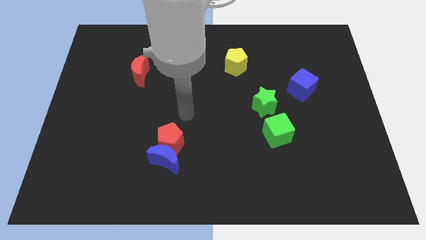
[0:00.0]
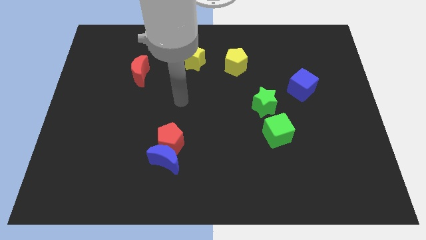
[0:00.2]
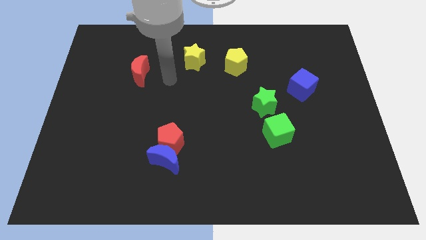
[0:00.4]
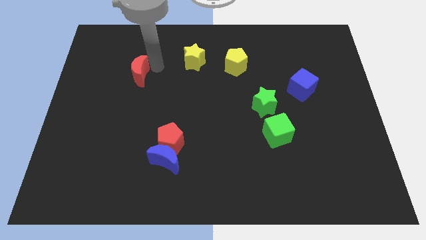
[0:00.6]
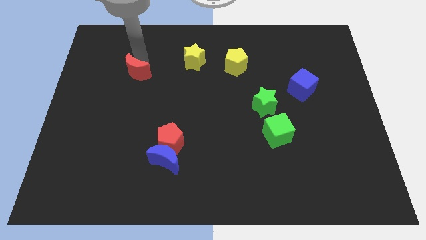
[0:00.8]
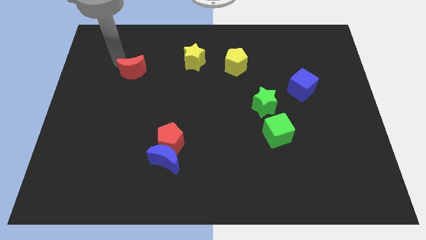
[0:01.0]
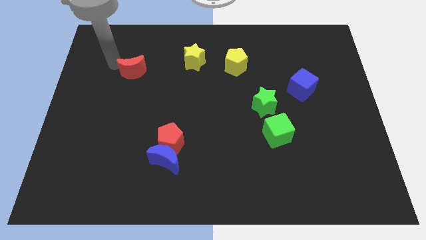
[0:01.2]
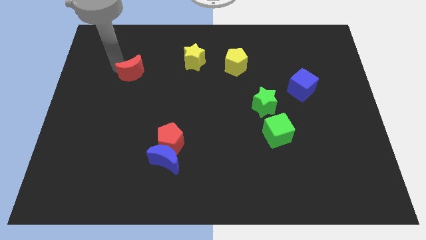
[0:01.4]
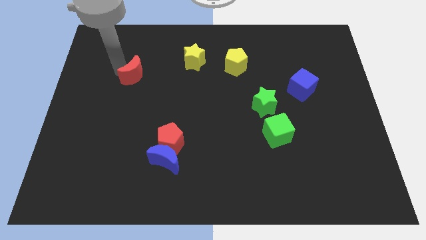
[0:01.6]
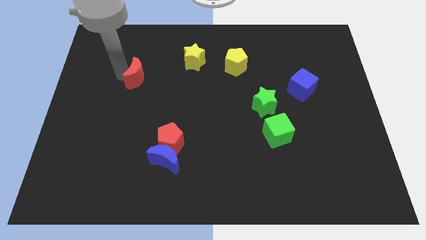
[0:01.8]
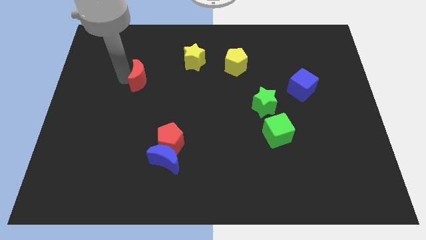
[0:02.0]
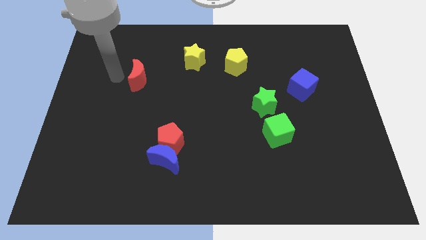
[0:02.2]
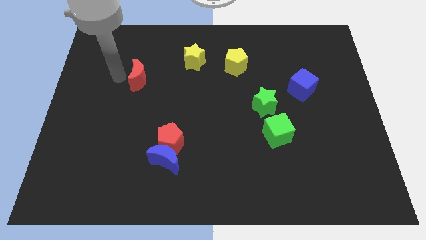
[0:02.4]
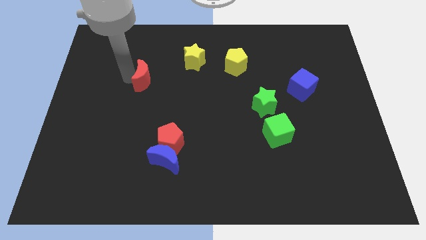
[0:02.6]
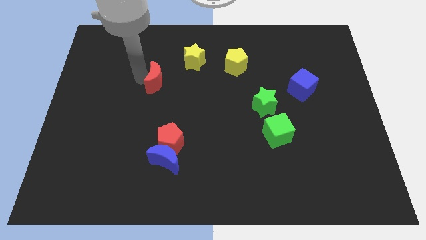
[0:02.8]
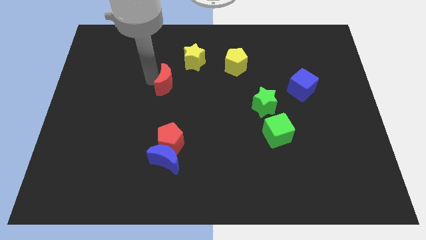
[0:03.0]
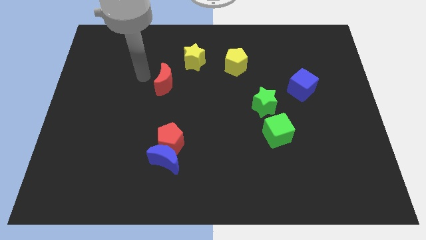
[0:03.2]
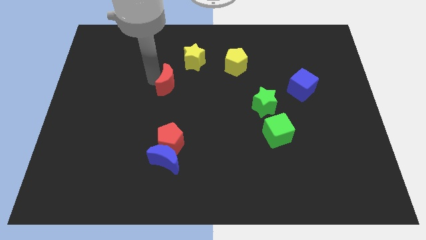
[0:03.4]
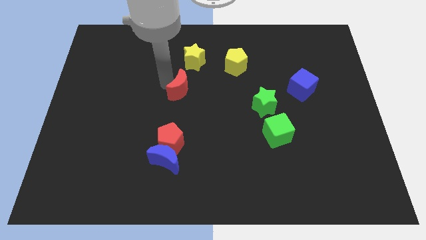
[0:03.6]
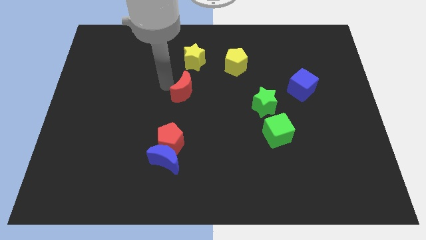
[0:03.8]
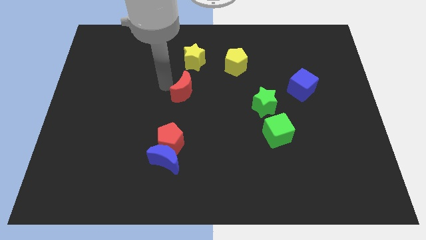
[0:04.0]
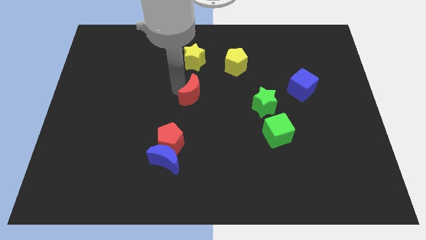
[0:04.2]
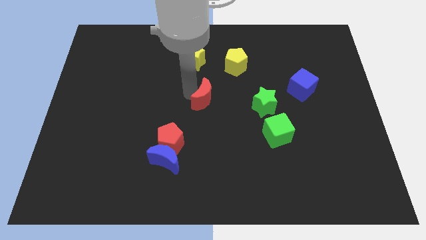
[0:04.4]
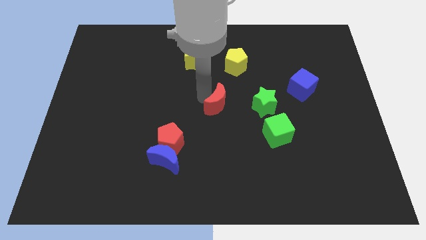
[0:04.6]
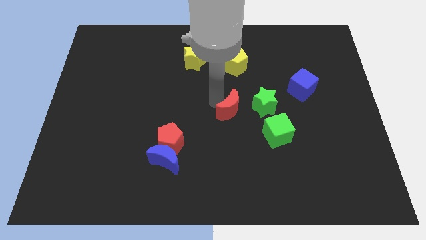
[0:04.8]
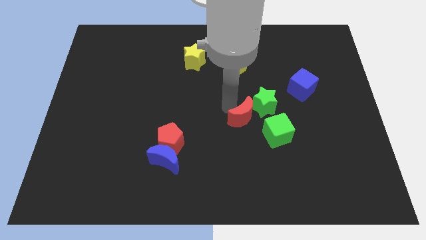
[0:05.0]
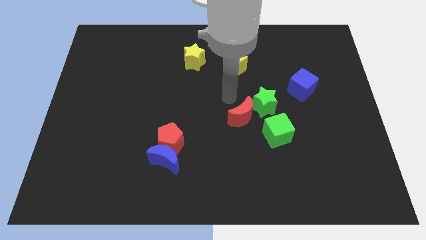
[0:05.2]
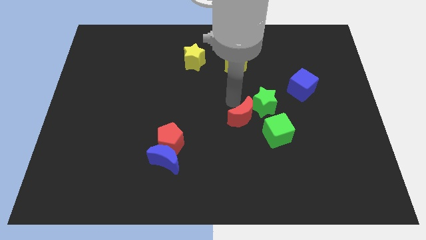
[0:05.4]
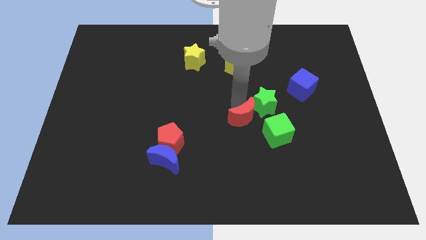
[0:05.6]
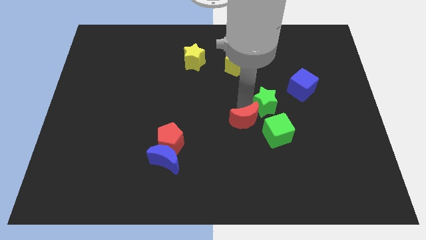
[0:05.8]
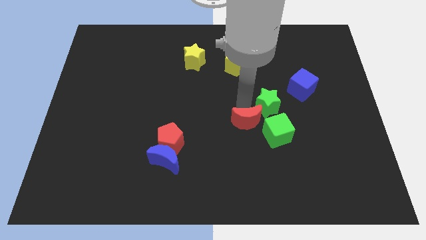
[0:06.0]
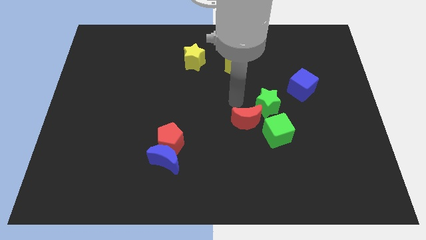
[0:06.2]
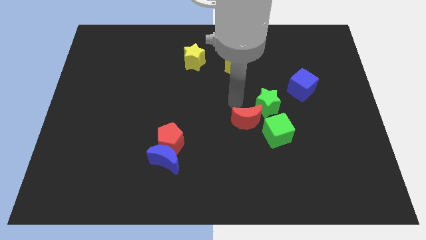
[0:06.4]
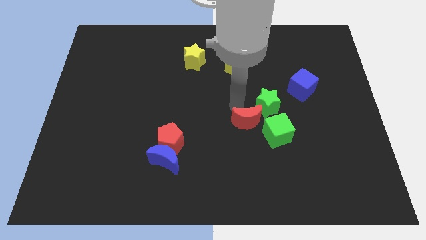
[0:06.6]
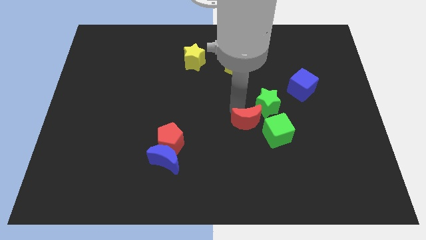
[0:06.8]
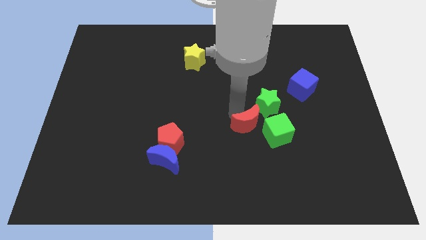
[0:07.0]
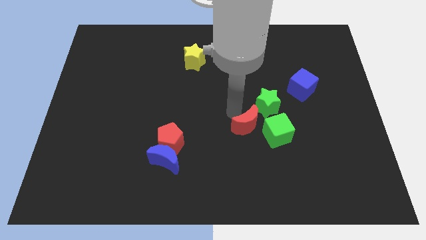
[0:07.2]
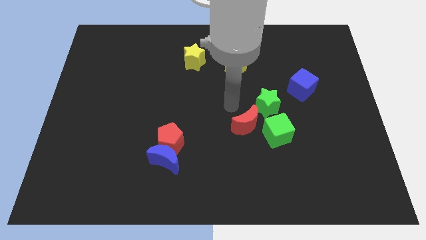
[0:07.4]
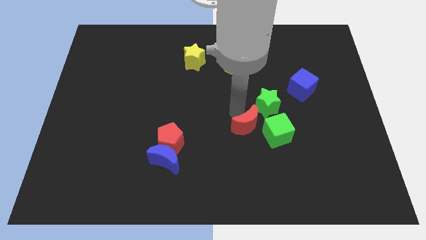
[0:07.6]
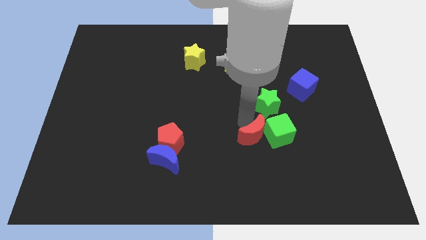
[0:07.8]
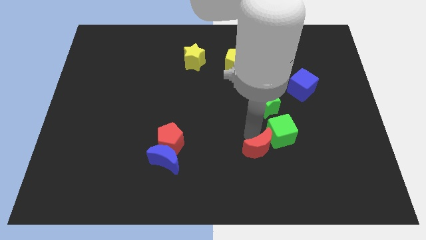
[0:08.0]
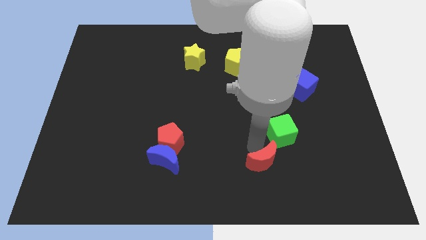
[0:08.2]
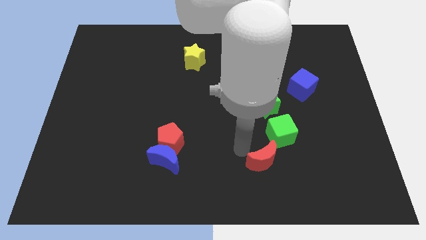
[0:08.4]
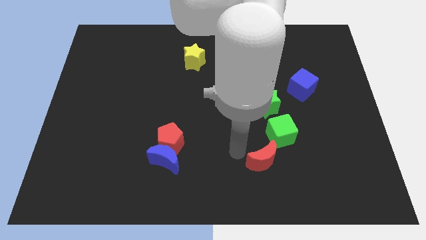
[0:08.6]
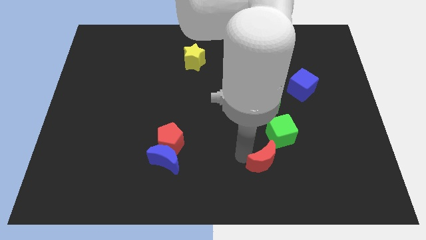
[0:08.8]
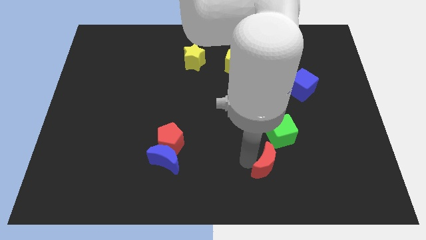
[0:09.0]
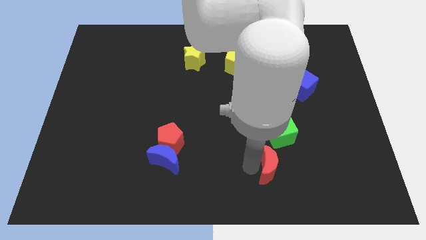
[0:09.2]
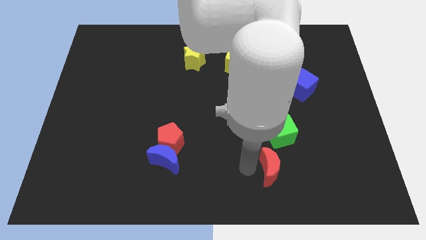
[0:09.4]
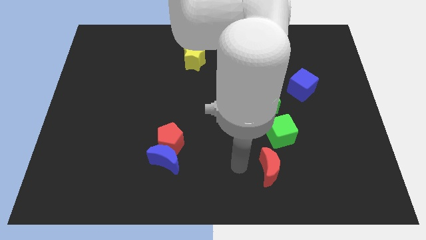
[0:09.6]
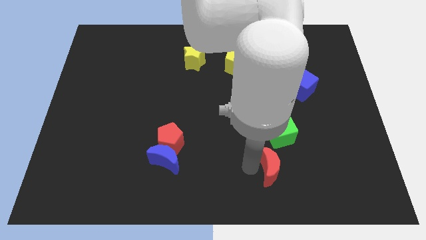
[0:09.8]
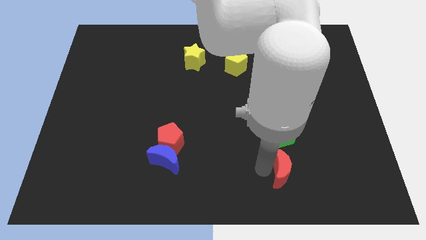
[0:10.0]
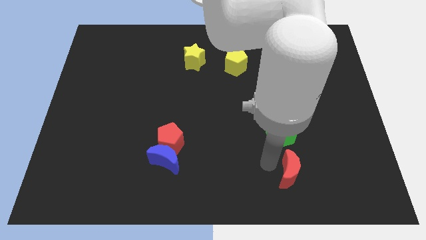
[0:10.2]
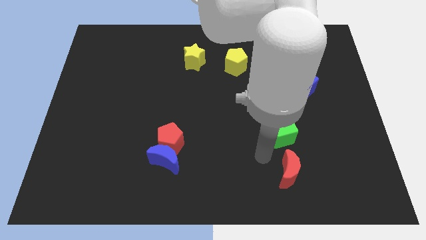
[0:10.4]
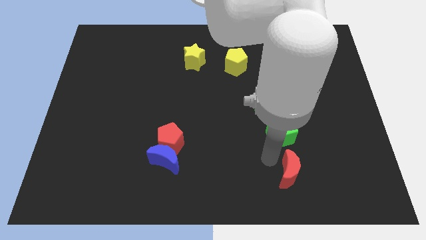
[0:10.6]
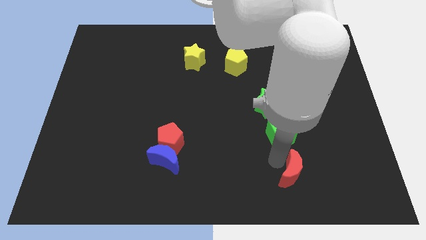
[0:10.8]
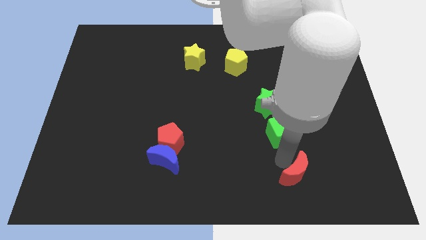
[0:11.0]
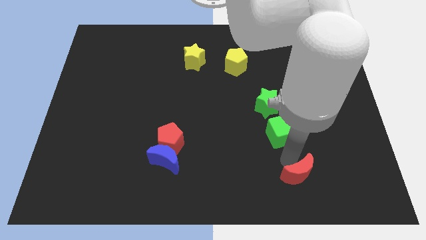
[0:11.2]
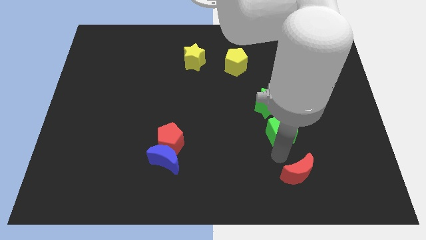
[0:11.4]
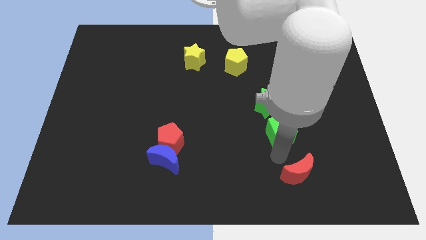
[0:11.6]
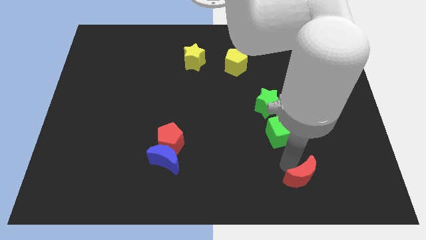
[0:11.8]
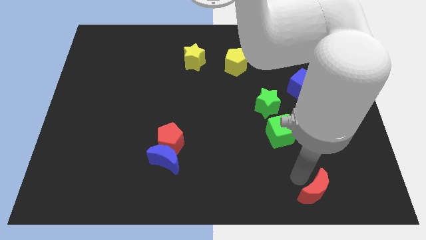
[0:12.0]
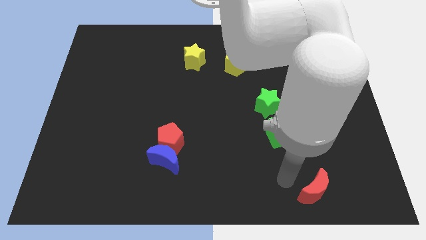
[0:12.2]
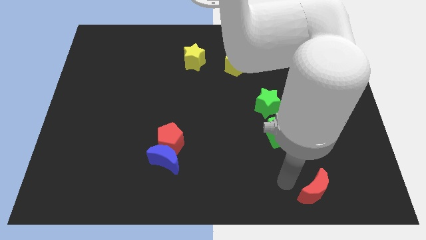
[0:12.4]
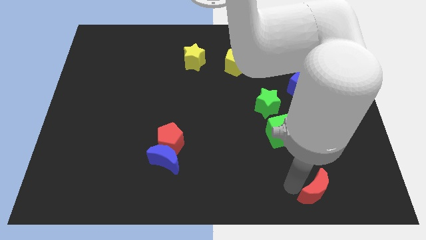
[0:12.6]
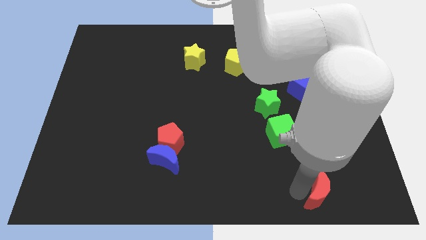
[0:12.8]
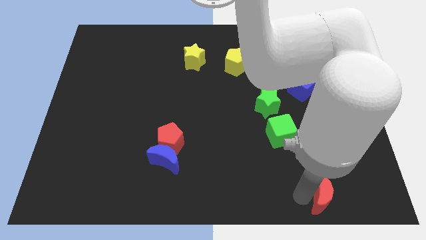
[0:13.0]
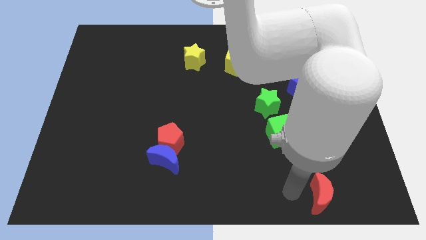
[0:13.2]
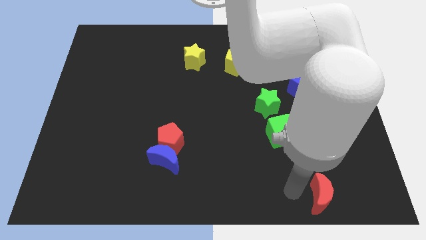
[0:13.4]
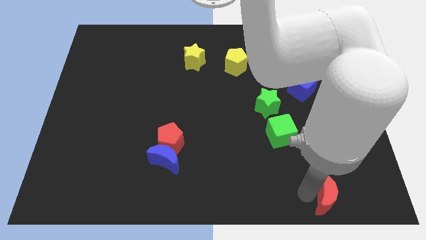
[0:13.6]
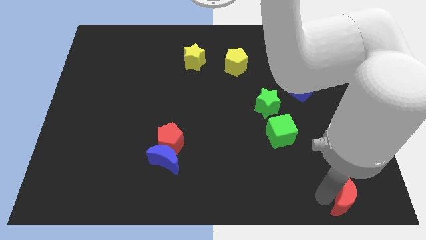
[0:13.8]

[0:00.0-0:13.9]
put the red moon to the bottom right of the board
